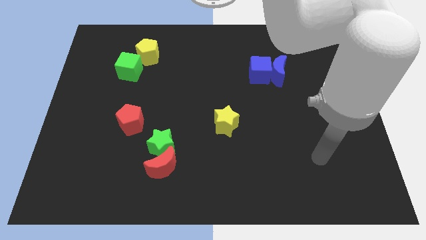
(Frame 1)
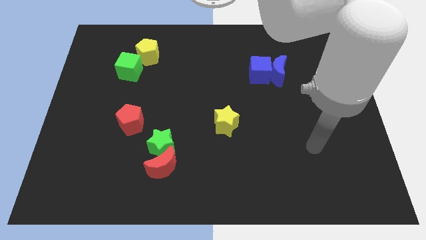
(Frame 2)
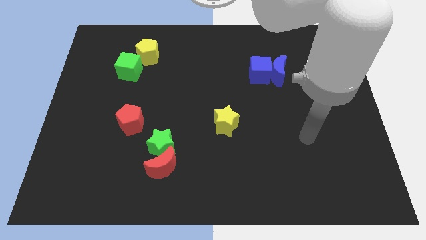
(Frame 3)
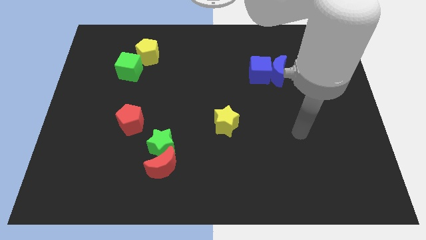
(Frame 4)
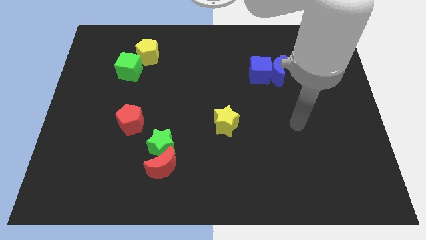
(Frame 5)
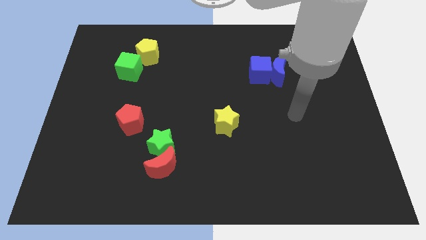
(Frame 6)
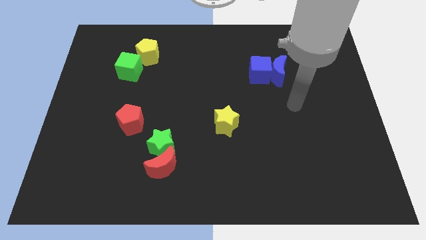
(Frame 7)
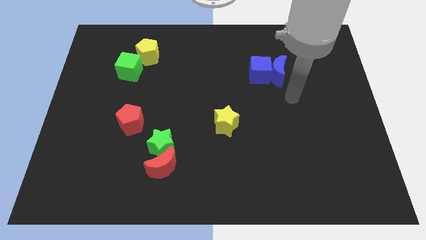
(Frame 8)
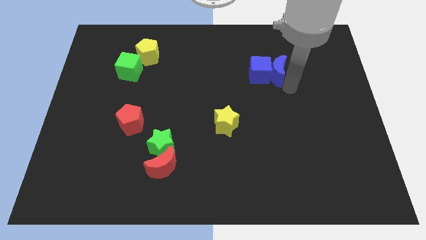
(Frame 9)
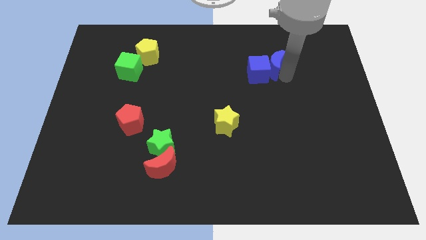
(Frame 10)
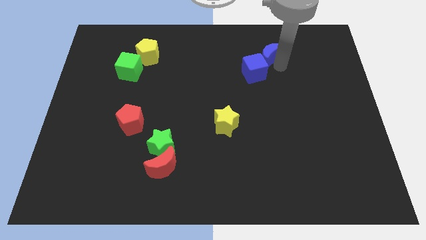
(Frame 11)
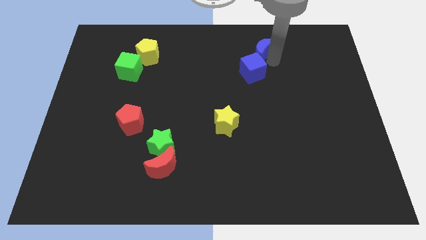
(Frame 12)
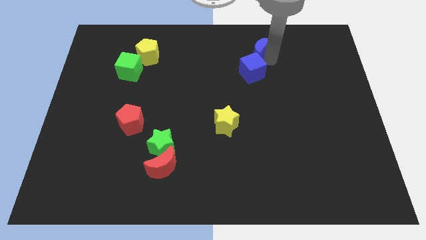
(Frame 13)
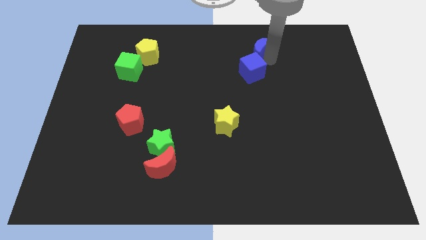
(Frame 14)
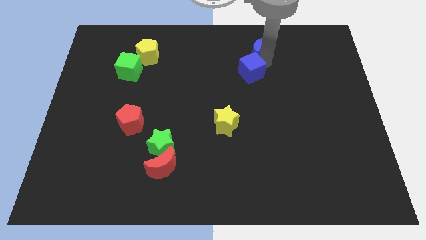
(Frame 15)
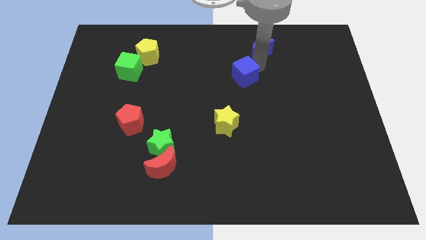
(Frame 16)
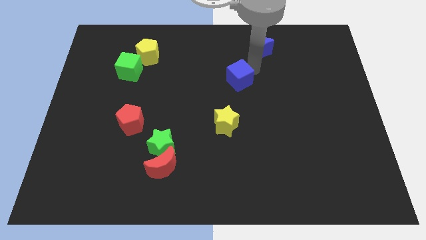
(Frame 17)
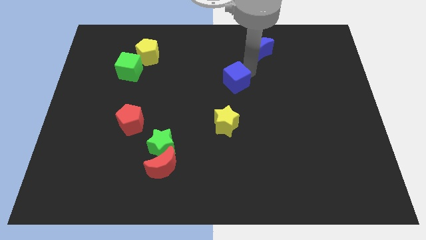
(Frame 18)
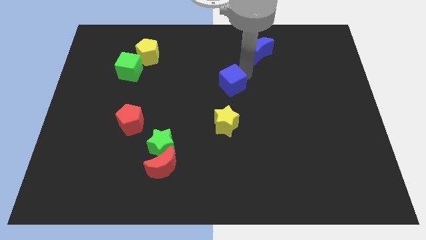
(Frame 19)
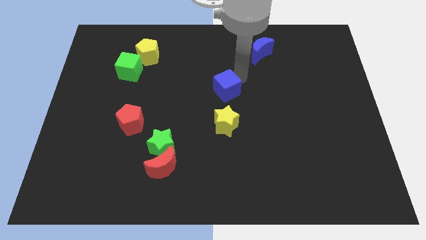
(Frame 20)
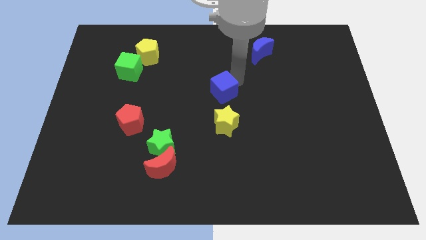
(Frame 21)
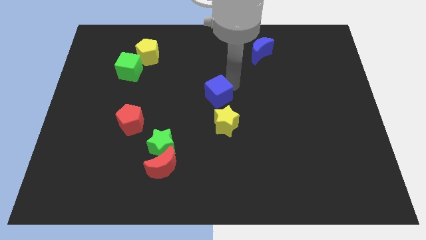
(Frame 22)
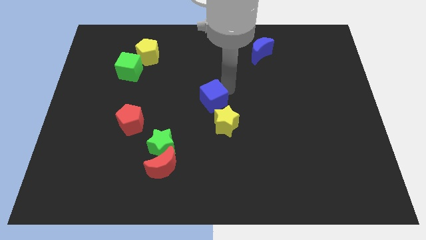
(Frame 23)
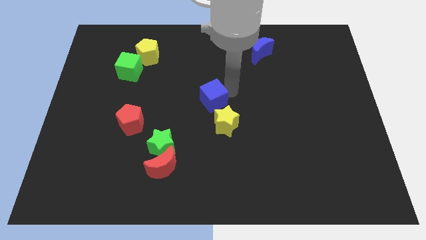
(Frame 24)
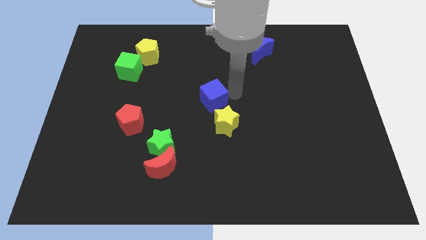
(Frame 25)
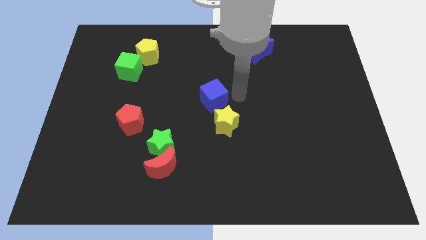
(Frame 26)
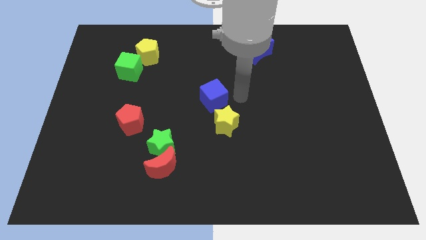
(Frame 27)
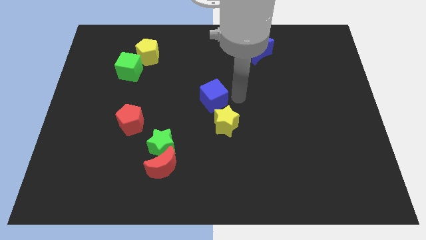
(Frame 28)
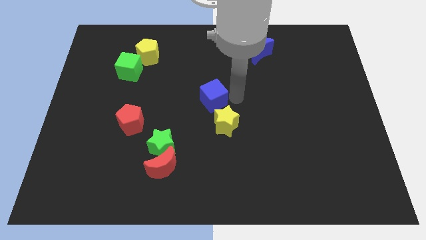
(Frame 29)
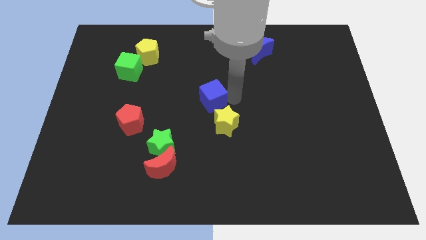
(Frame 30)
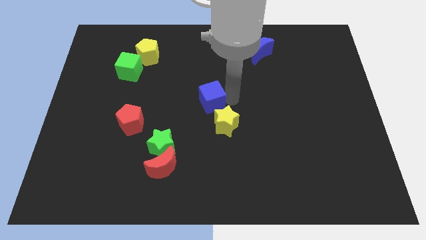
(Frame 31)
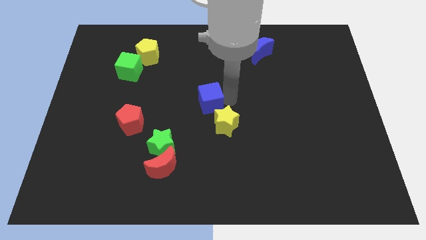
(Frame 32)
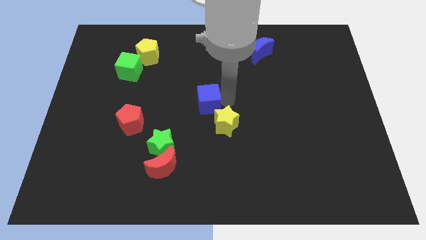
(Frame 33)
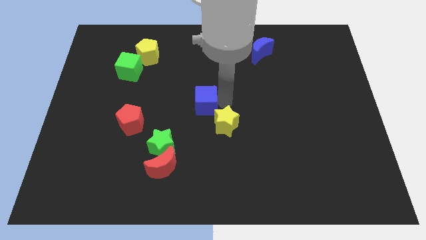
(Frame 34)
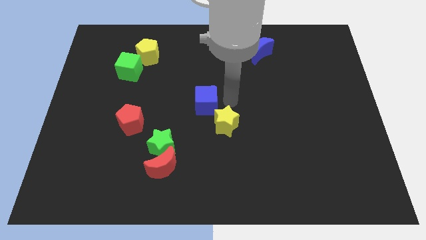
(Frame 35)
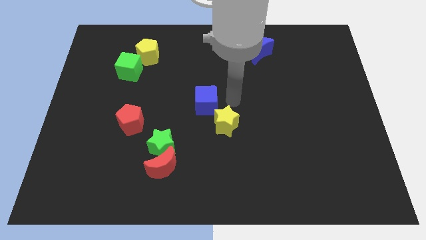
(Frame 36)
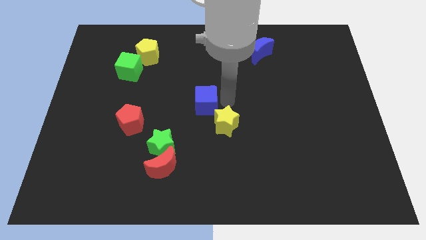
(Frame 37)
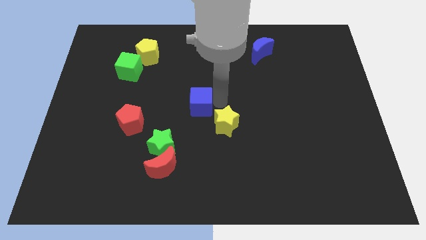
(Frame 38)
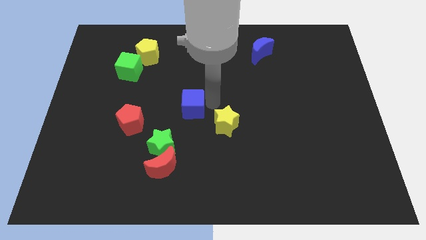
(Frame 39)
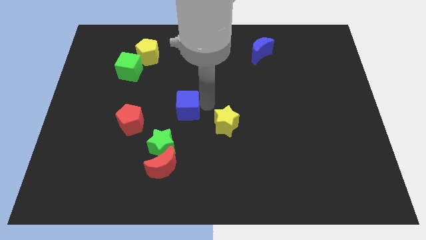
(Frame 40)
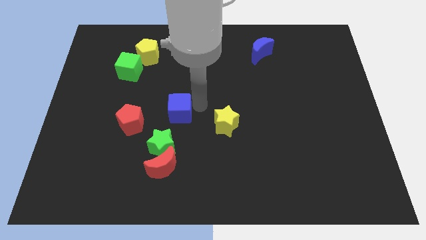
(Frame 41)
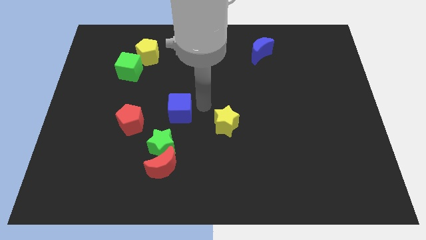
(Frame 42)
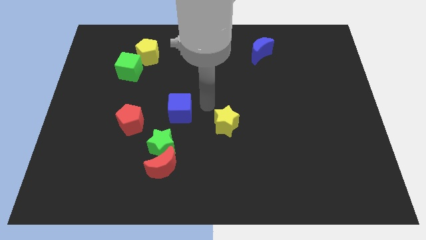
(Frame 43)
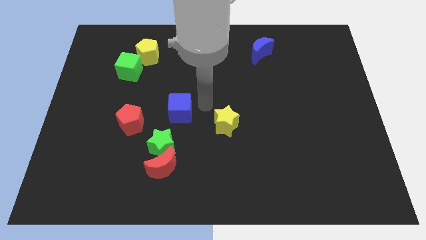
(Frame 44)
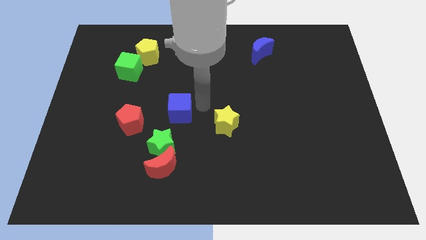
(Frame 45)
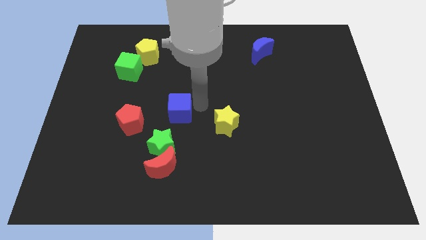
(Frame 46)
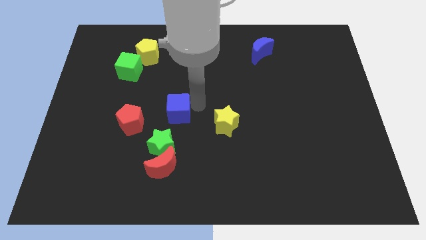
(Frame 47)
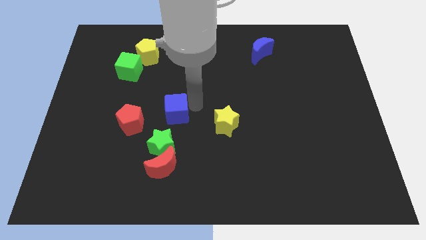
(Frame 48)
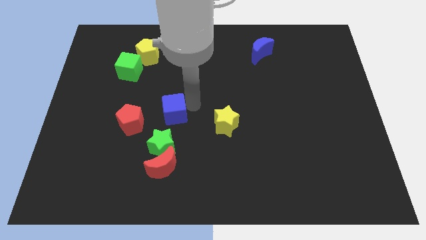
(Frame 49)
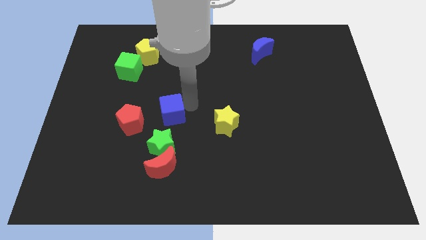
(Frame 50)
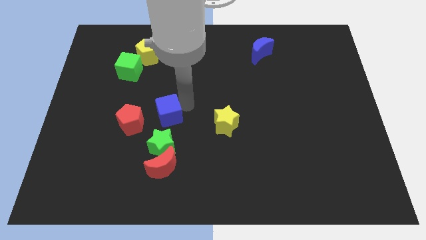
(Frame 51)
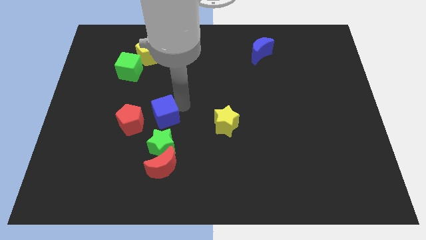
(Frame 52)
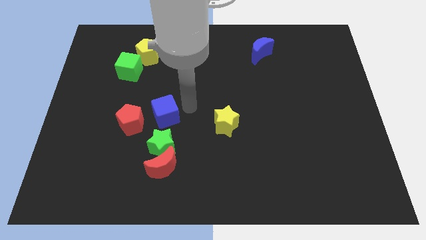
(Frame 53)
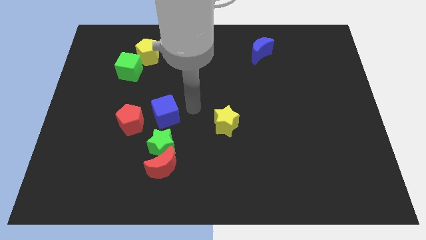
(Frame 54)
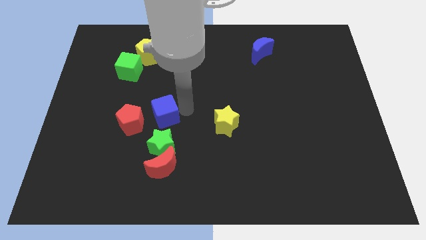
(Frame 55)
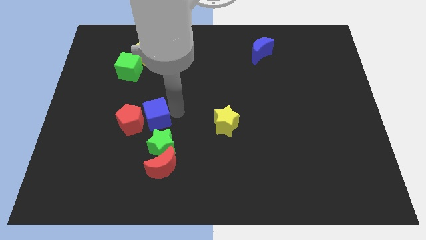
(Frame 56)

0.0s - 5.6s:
move the blue cube close to the red pentagon

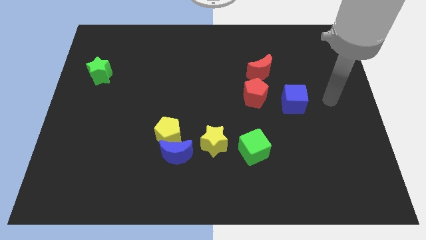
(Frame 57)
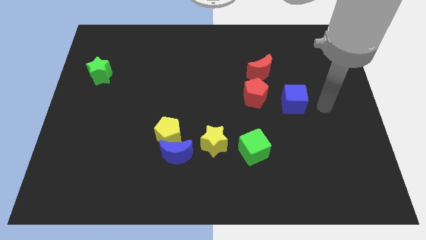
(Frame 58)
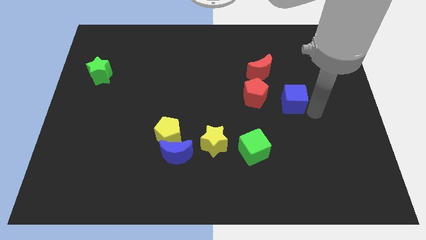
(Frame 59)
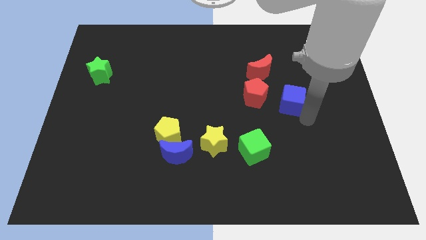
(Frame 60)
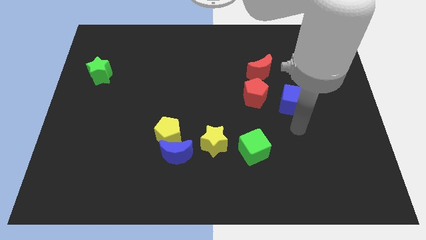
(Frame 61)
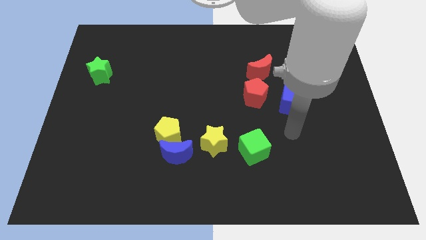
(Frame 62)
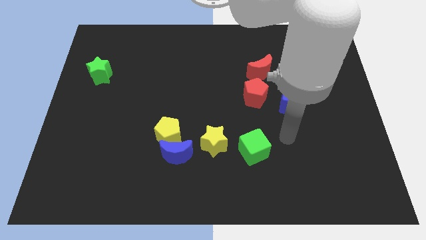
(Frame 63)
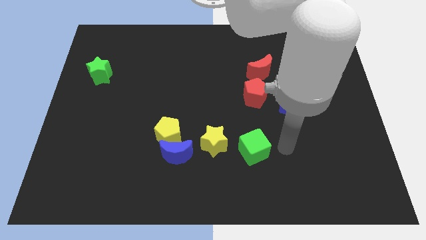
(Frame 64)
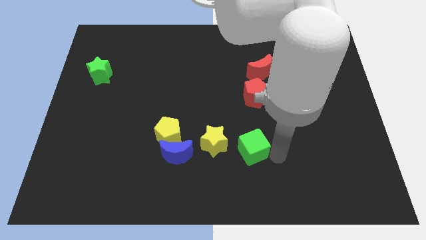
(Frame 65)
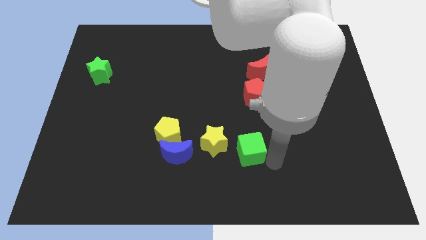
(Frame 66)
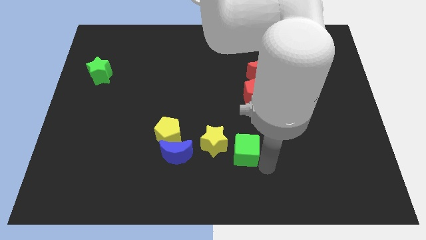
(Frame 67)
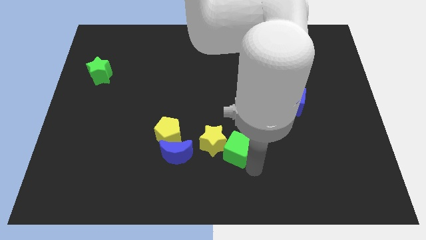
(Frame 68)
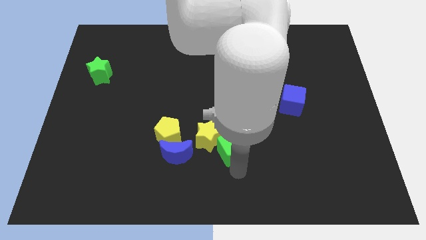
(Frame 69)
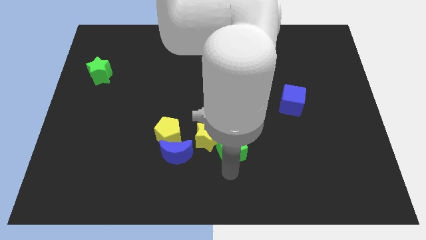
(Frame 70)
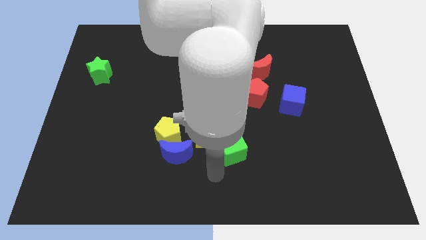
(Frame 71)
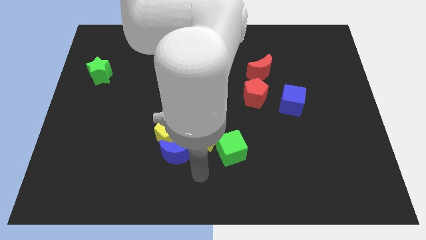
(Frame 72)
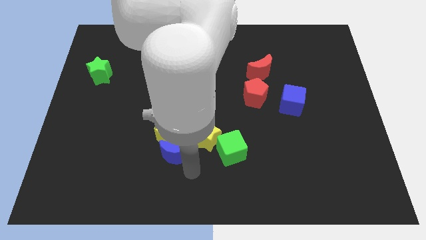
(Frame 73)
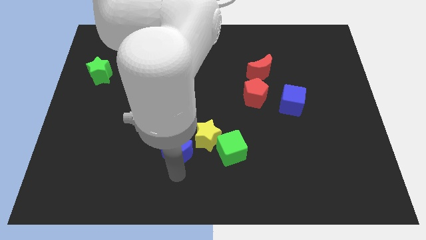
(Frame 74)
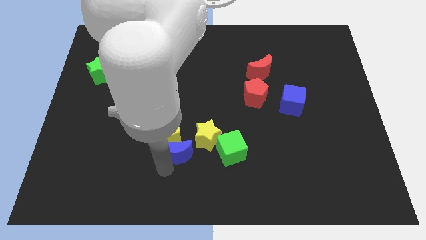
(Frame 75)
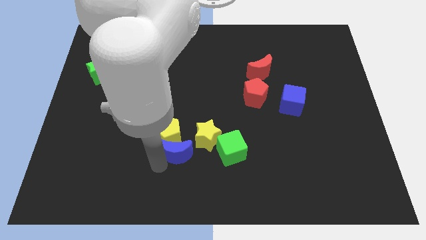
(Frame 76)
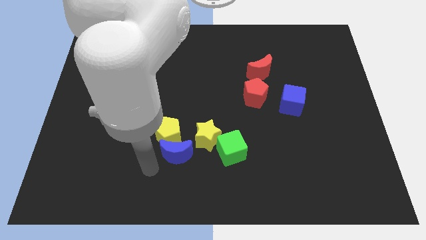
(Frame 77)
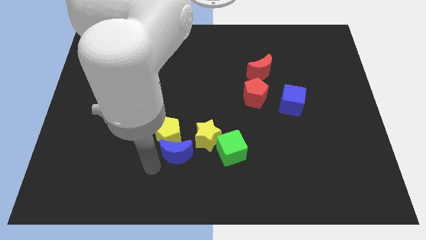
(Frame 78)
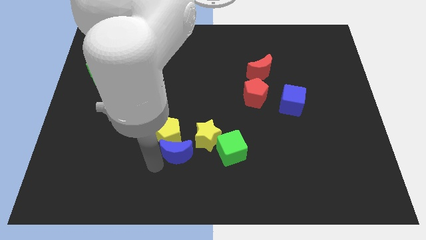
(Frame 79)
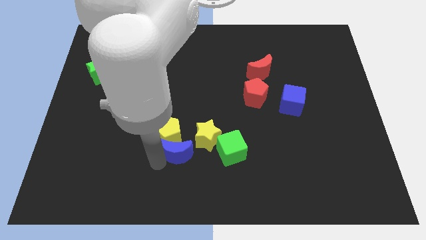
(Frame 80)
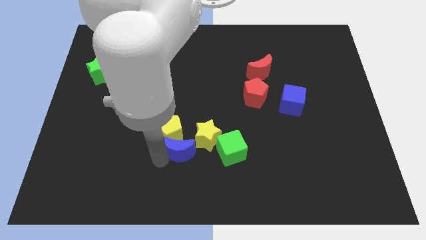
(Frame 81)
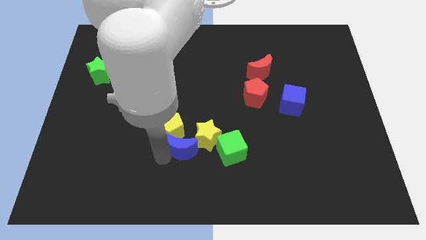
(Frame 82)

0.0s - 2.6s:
move the blue moon to the yellow star

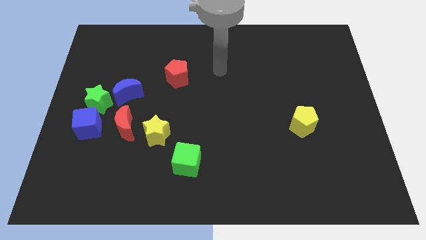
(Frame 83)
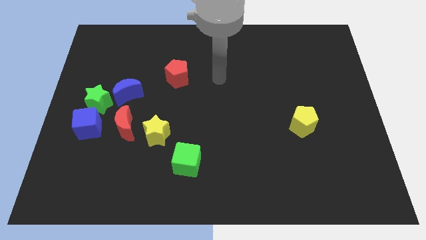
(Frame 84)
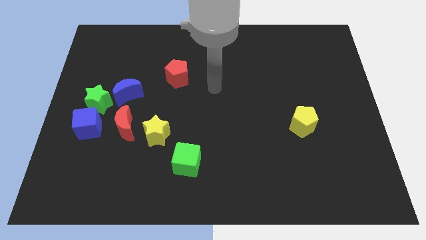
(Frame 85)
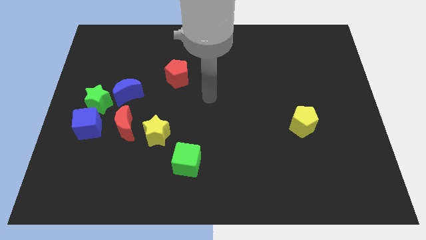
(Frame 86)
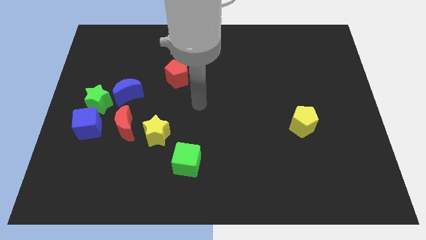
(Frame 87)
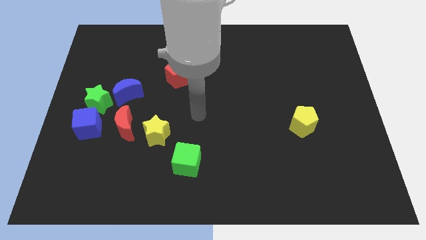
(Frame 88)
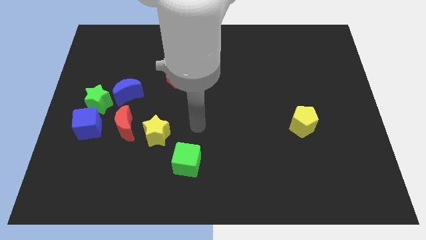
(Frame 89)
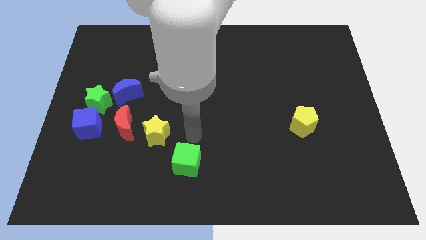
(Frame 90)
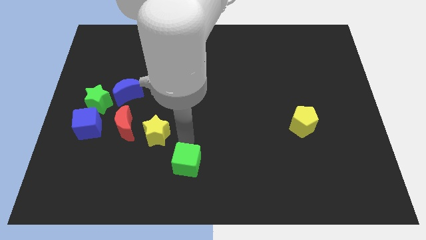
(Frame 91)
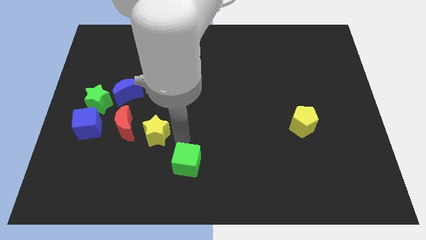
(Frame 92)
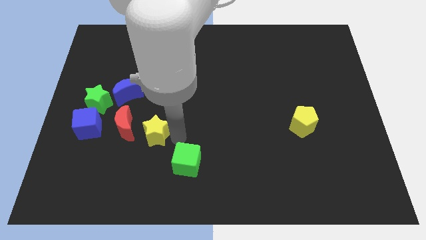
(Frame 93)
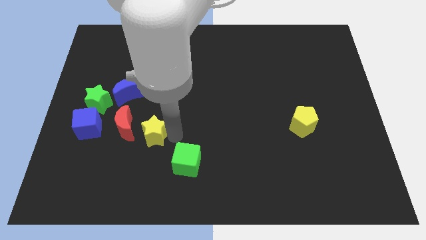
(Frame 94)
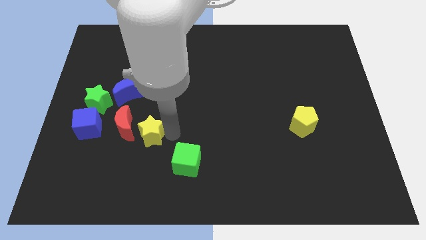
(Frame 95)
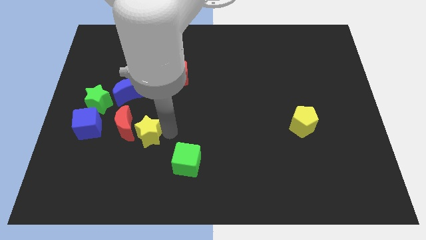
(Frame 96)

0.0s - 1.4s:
push the yellow star to the red moon
